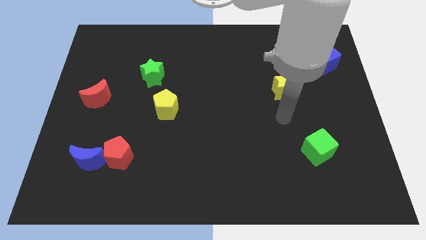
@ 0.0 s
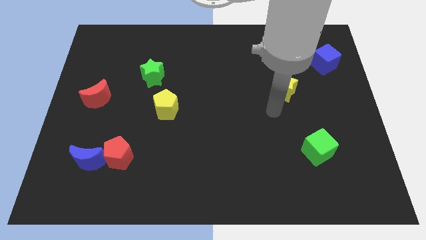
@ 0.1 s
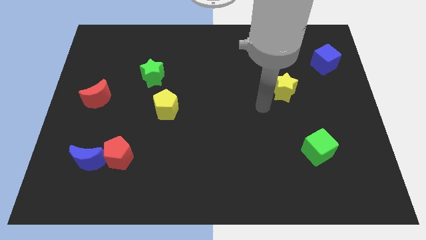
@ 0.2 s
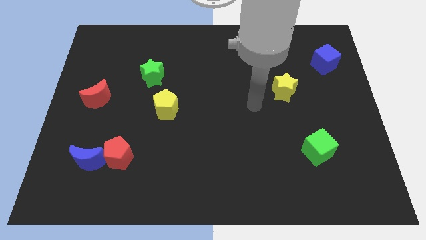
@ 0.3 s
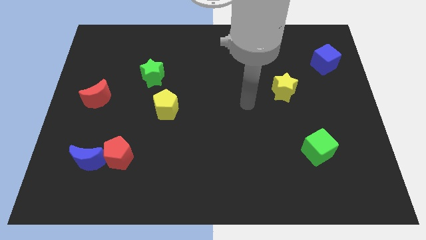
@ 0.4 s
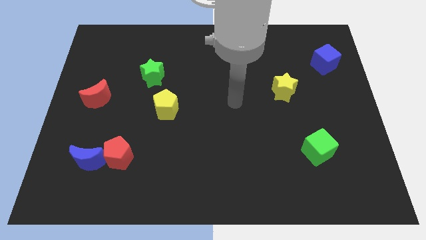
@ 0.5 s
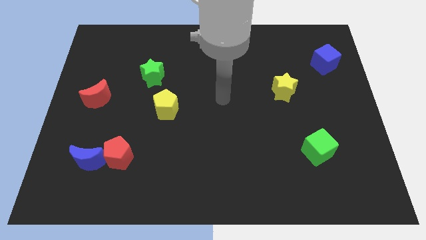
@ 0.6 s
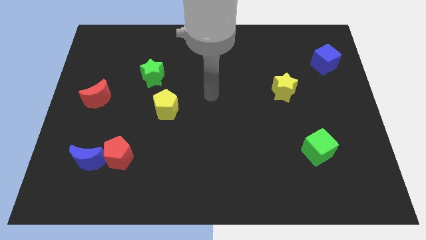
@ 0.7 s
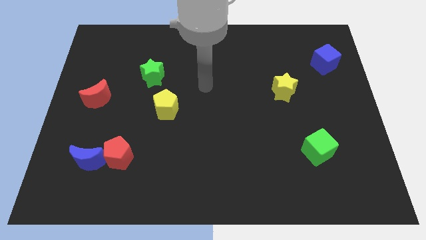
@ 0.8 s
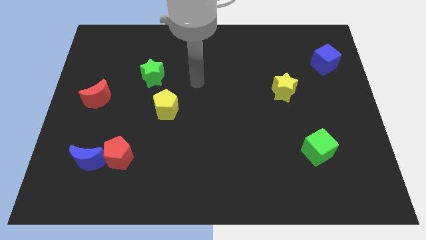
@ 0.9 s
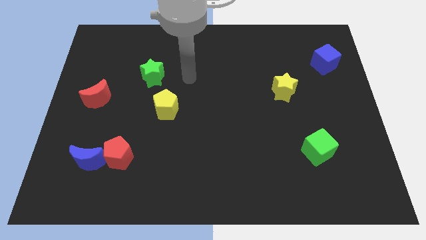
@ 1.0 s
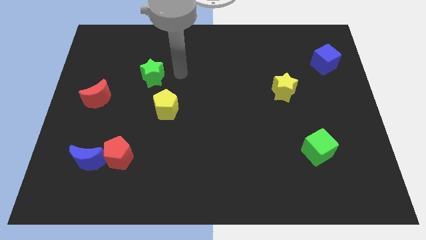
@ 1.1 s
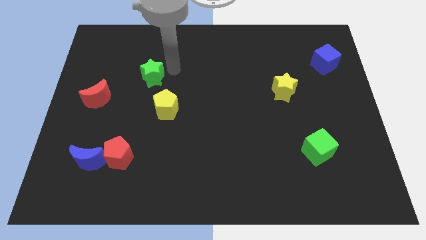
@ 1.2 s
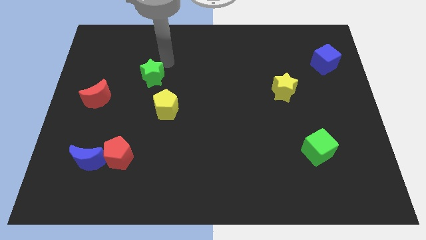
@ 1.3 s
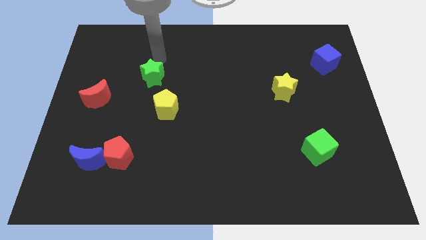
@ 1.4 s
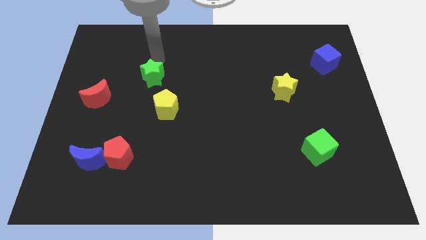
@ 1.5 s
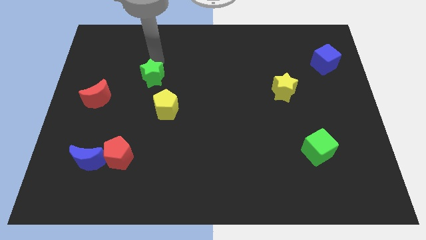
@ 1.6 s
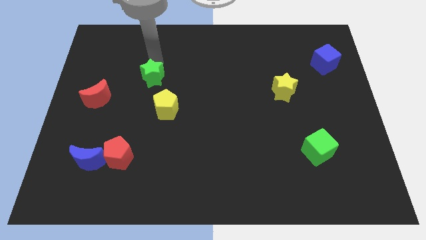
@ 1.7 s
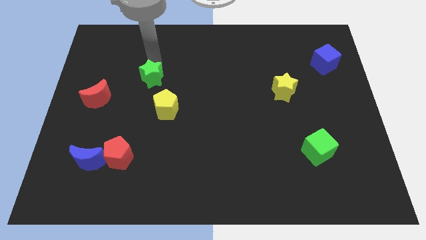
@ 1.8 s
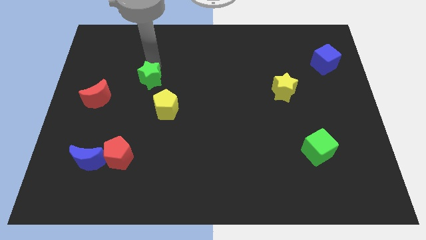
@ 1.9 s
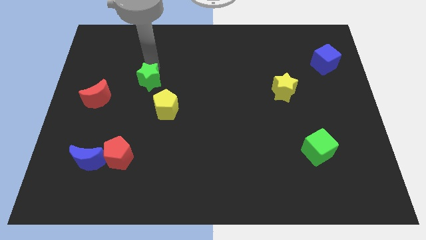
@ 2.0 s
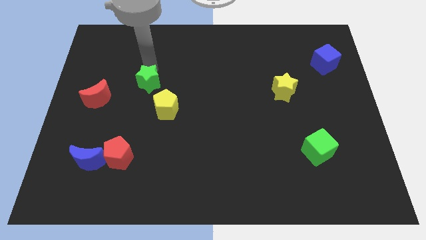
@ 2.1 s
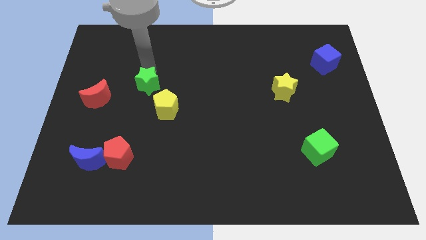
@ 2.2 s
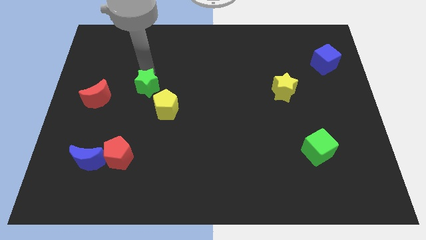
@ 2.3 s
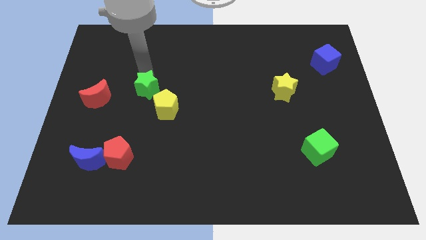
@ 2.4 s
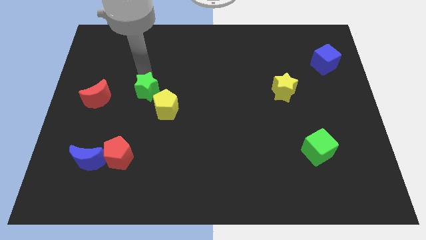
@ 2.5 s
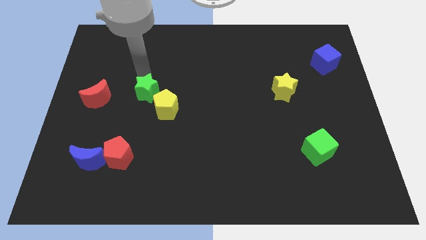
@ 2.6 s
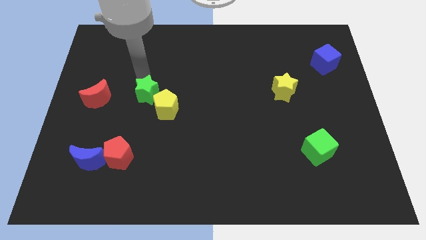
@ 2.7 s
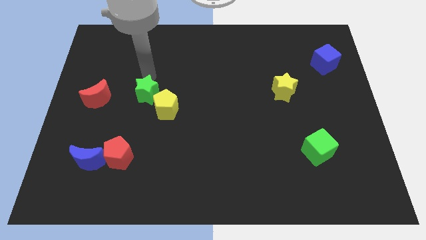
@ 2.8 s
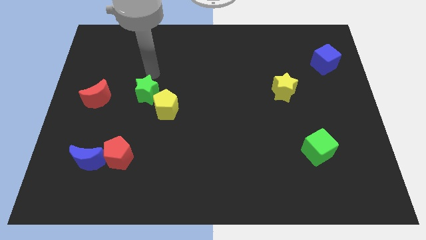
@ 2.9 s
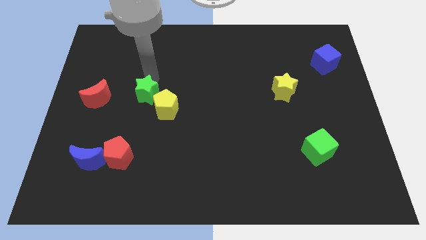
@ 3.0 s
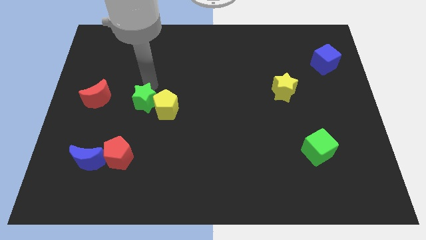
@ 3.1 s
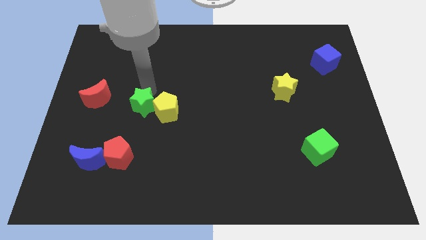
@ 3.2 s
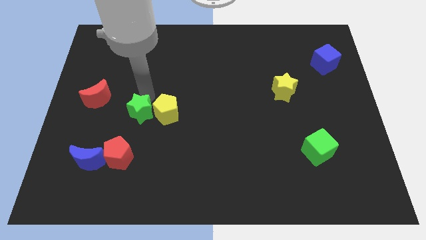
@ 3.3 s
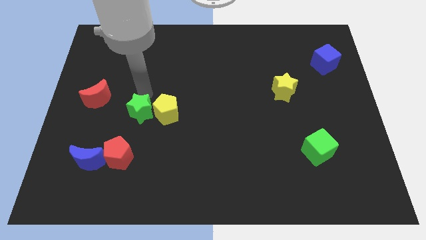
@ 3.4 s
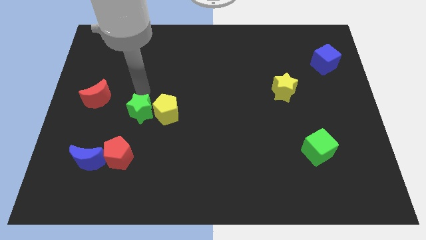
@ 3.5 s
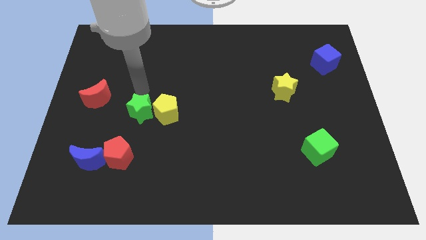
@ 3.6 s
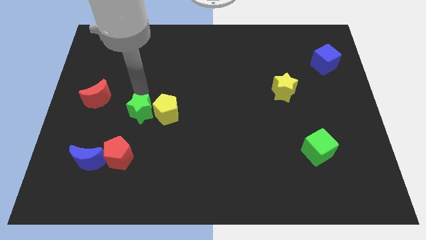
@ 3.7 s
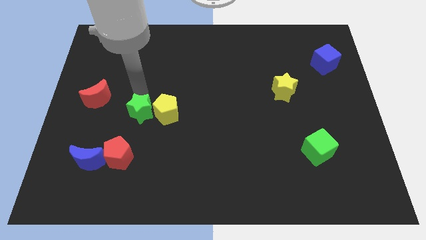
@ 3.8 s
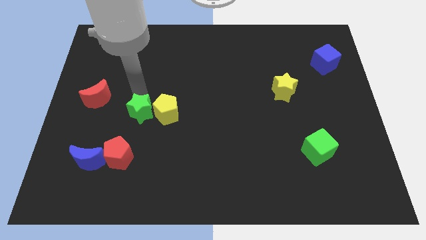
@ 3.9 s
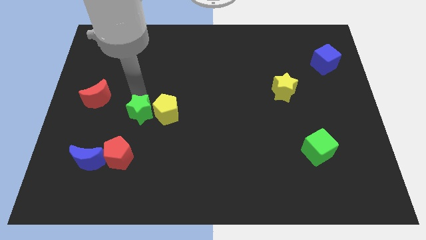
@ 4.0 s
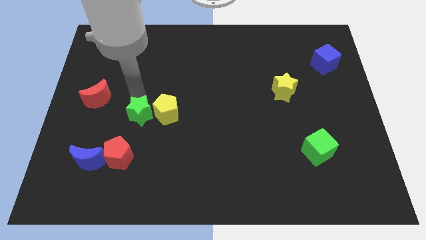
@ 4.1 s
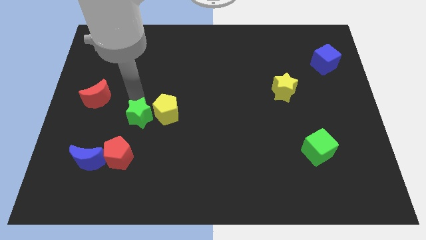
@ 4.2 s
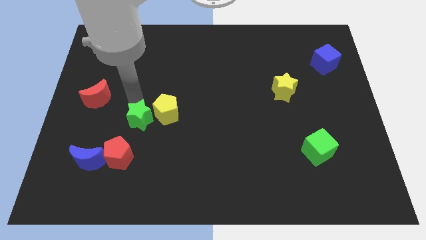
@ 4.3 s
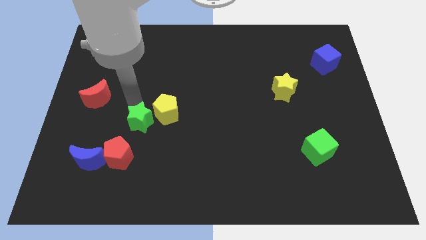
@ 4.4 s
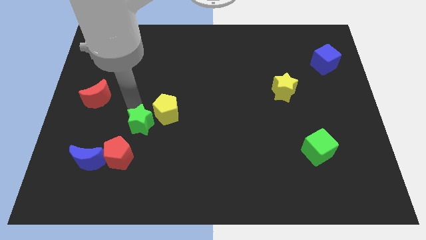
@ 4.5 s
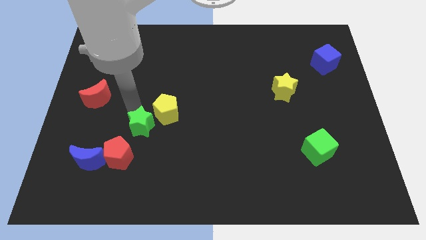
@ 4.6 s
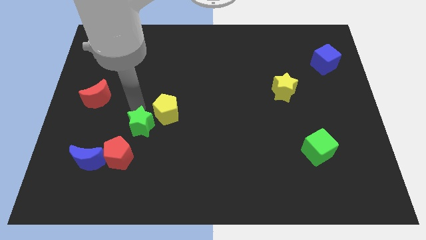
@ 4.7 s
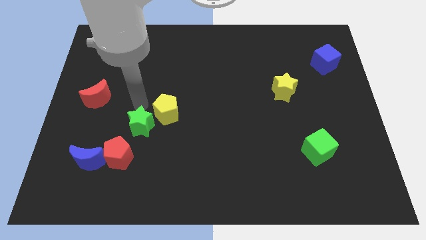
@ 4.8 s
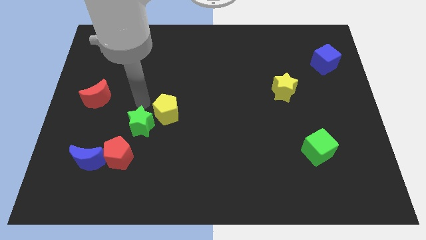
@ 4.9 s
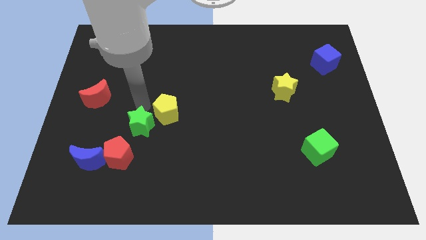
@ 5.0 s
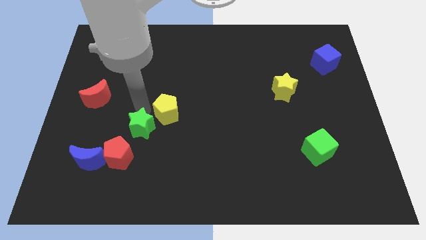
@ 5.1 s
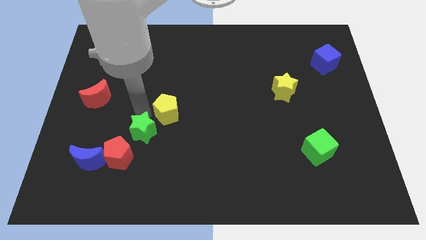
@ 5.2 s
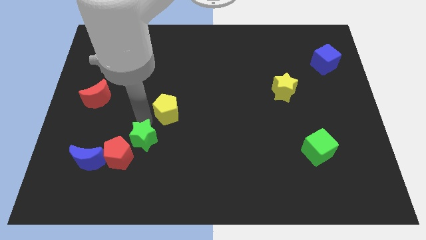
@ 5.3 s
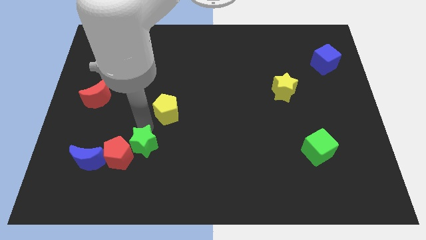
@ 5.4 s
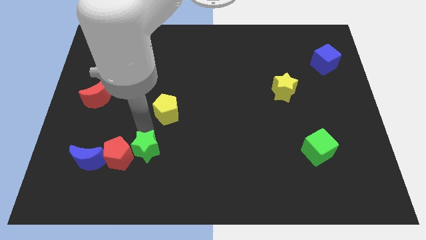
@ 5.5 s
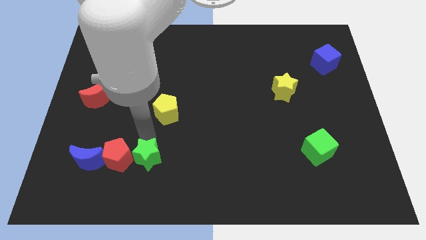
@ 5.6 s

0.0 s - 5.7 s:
move the green star diagonally down and to the right of the red pentagon

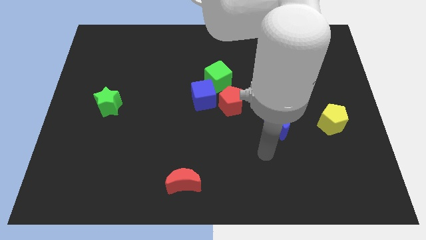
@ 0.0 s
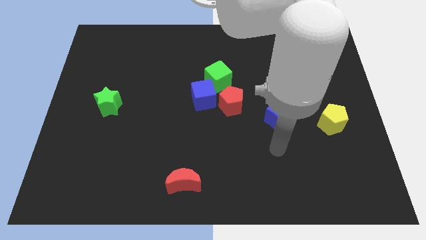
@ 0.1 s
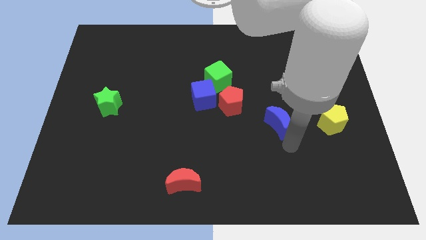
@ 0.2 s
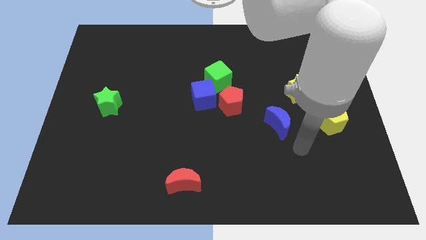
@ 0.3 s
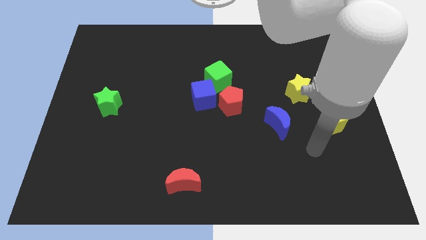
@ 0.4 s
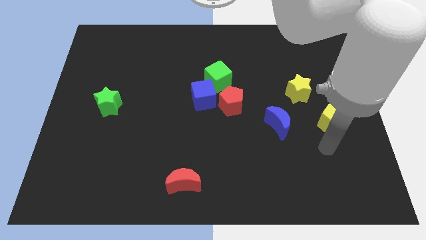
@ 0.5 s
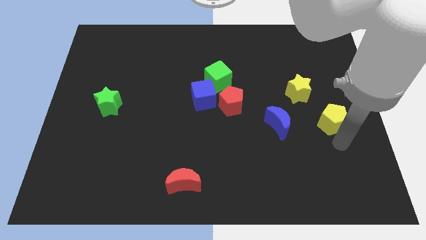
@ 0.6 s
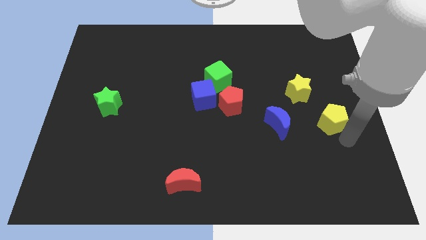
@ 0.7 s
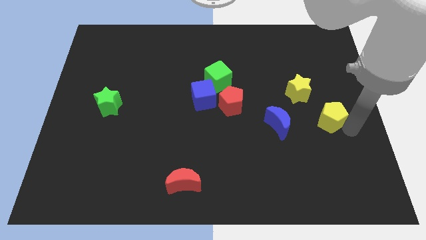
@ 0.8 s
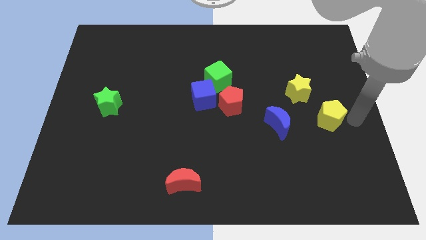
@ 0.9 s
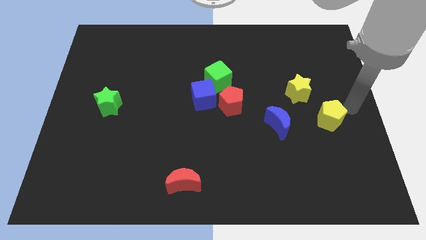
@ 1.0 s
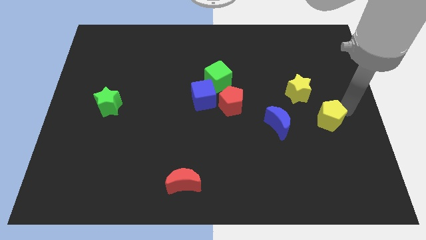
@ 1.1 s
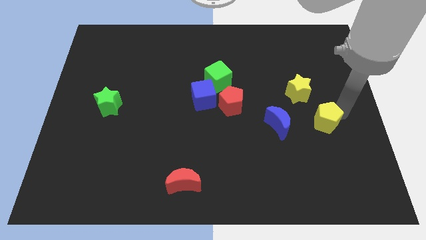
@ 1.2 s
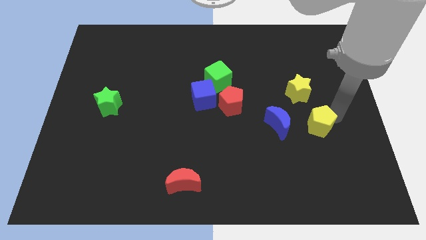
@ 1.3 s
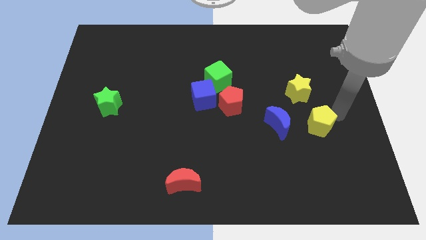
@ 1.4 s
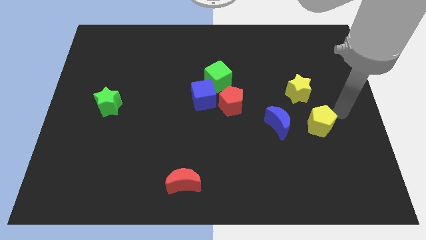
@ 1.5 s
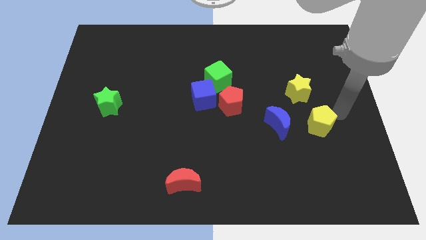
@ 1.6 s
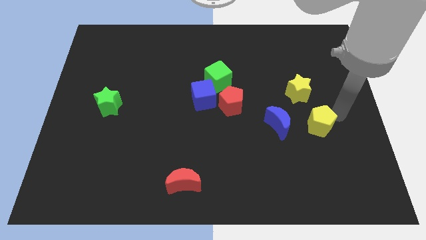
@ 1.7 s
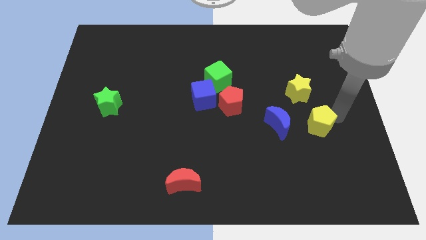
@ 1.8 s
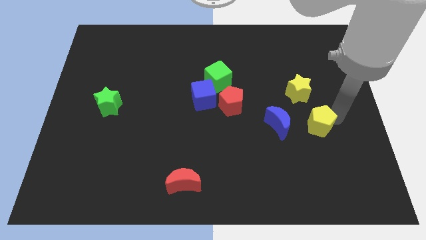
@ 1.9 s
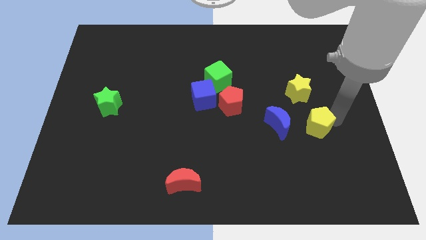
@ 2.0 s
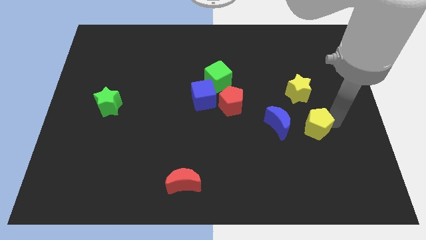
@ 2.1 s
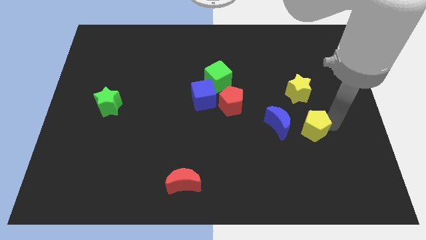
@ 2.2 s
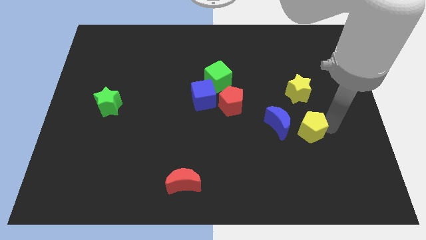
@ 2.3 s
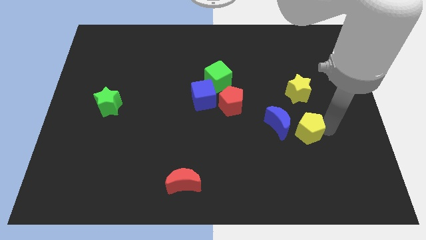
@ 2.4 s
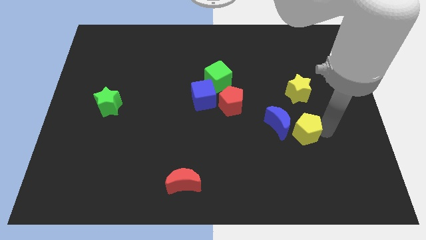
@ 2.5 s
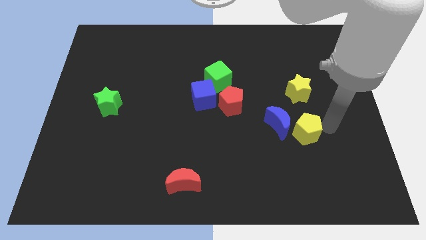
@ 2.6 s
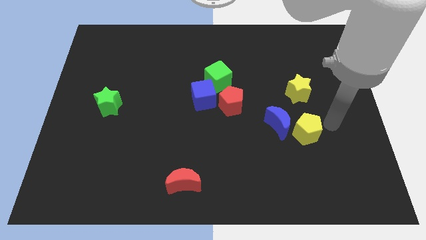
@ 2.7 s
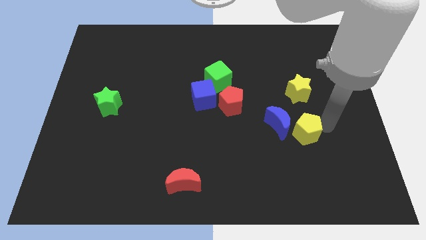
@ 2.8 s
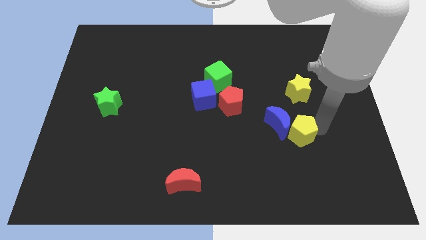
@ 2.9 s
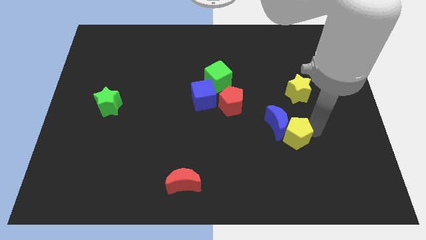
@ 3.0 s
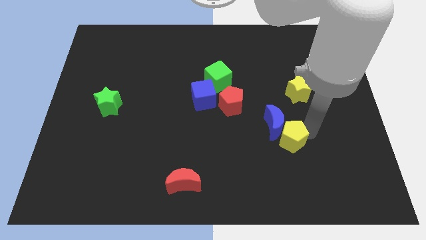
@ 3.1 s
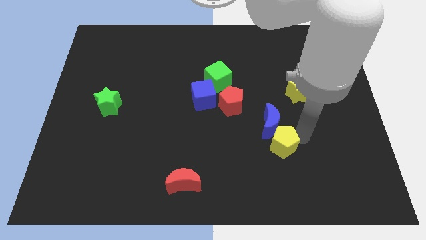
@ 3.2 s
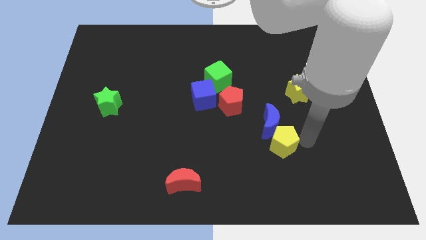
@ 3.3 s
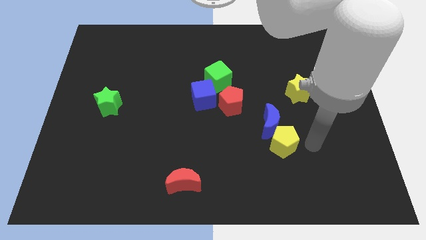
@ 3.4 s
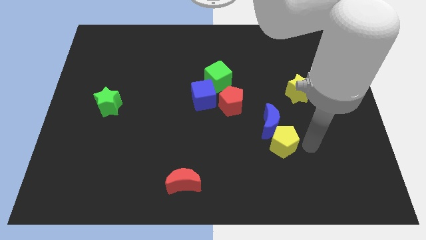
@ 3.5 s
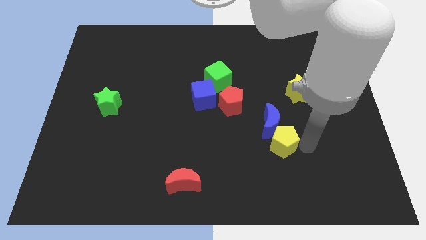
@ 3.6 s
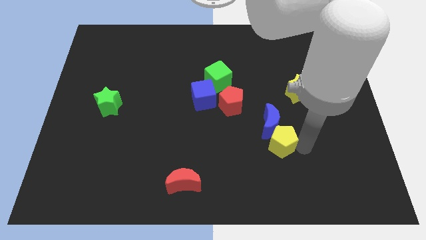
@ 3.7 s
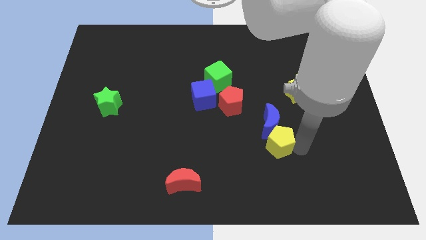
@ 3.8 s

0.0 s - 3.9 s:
push the yellow pentagon to the bottom left of the blue moon
